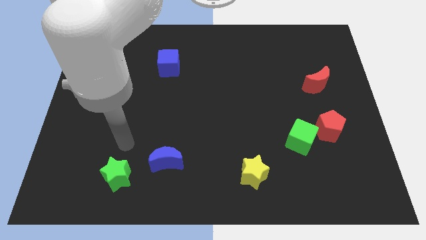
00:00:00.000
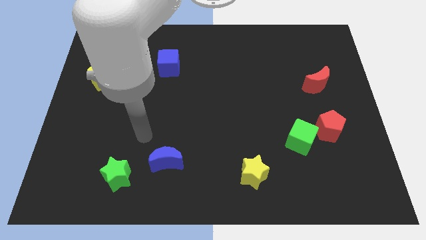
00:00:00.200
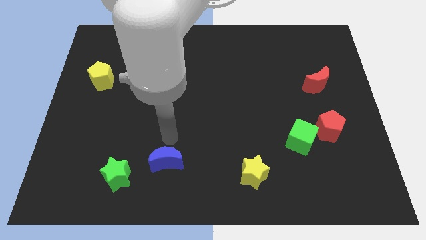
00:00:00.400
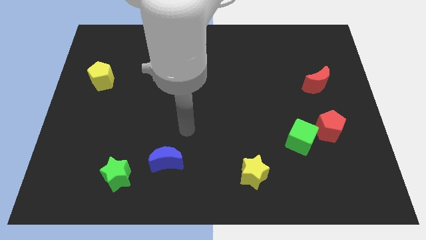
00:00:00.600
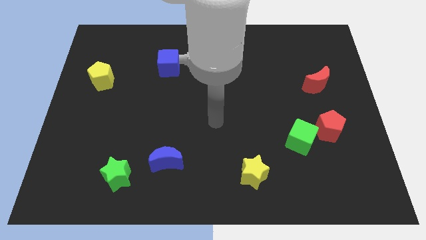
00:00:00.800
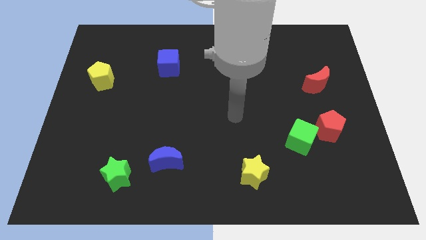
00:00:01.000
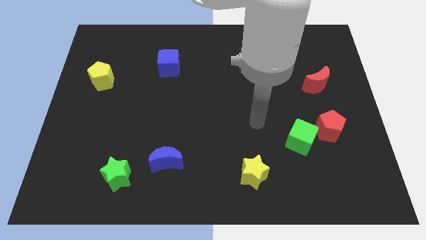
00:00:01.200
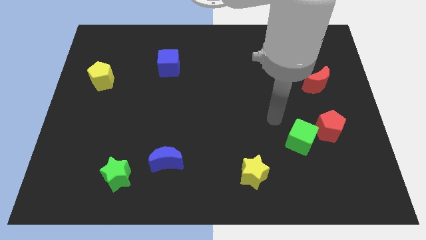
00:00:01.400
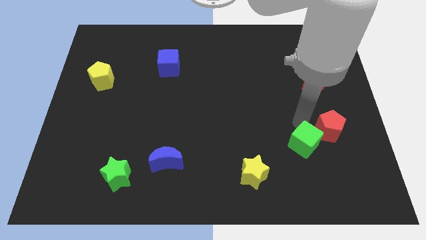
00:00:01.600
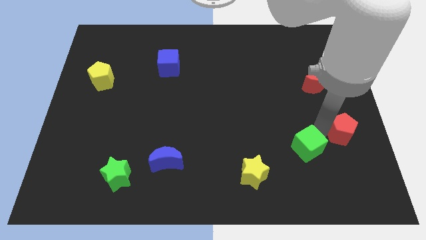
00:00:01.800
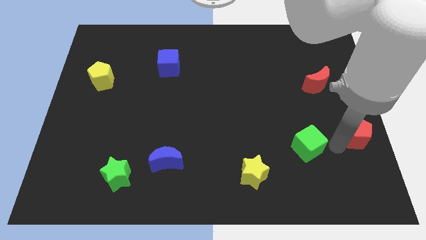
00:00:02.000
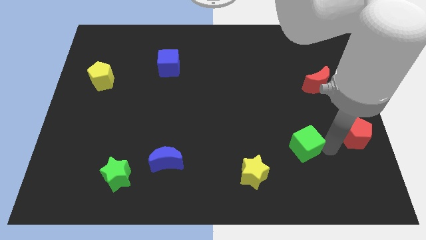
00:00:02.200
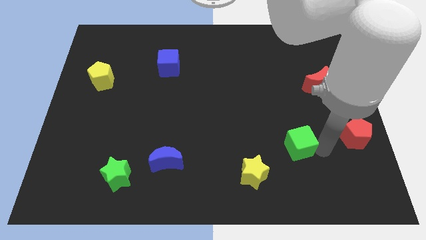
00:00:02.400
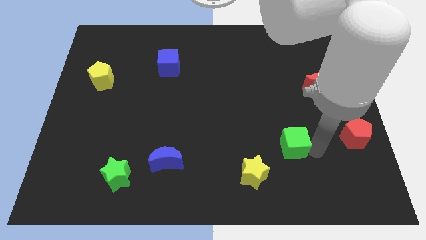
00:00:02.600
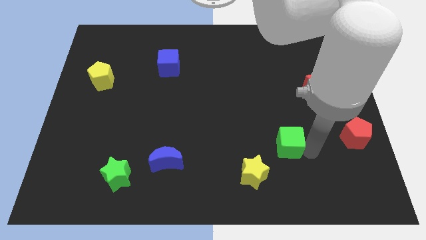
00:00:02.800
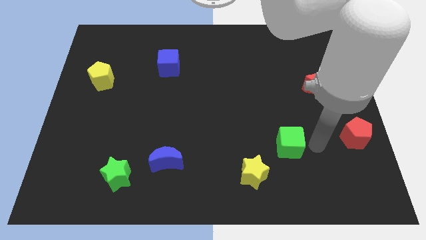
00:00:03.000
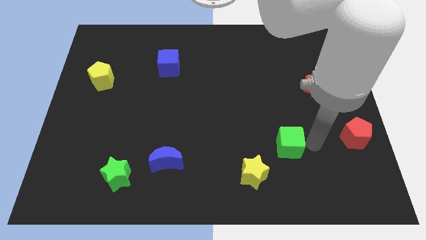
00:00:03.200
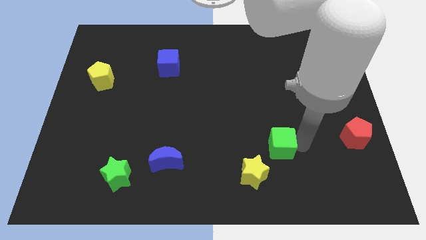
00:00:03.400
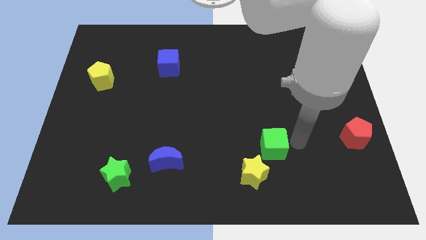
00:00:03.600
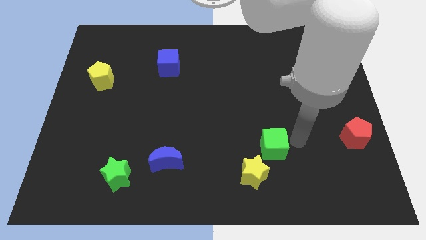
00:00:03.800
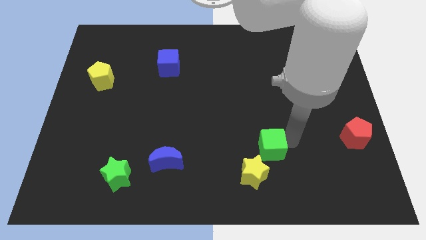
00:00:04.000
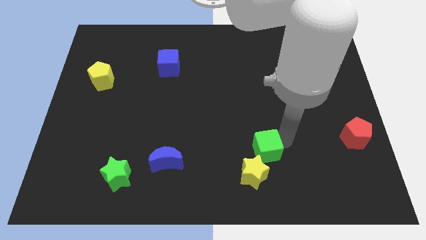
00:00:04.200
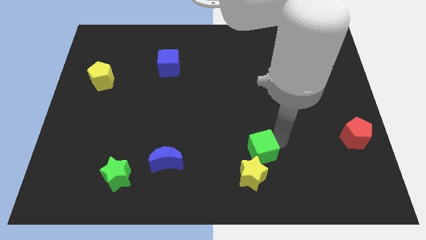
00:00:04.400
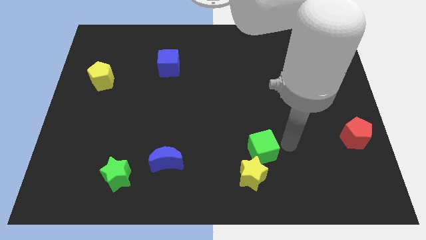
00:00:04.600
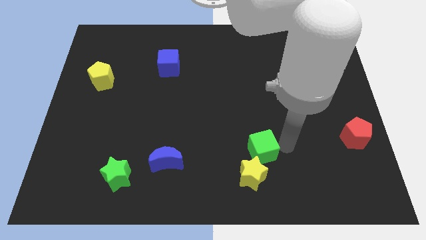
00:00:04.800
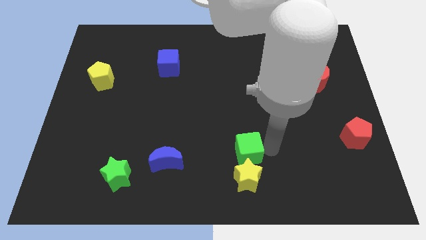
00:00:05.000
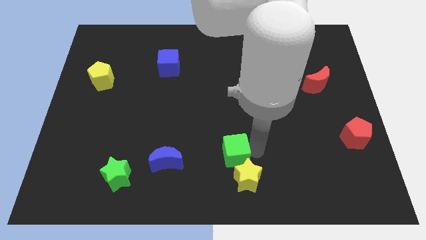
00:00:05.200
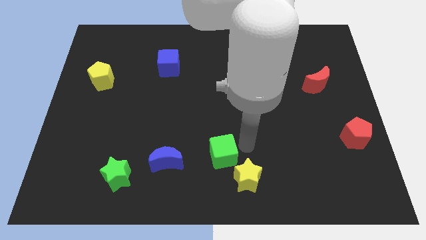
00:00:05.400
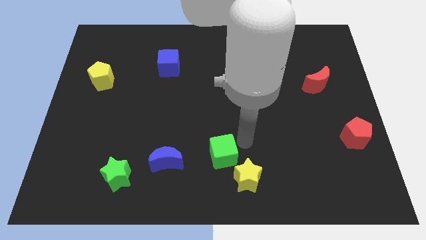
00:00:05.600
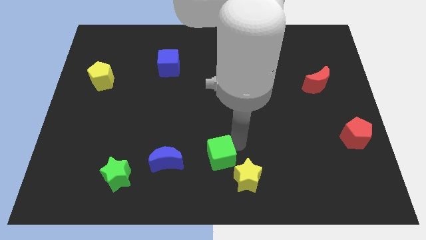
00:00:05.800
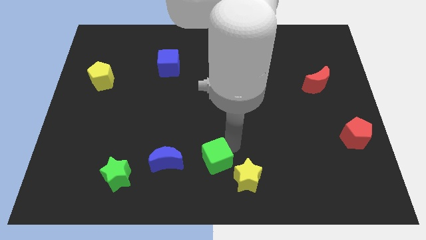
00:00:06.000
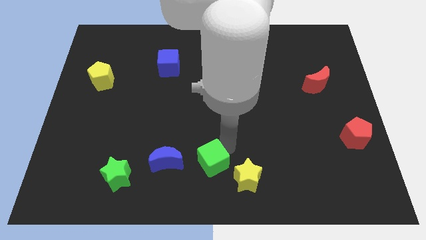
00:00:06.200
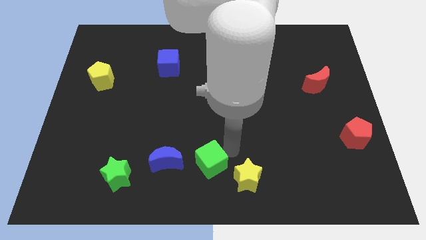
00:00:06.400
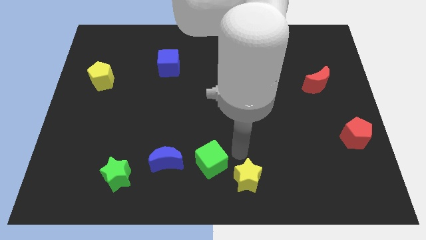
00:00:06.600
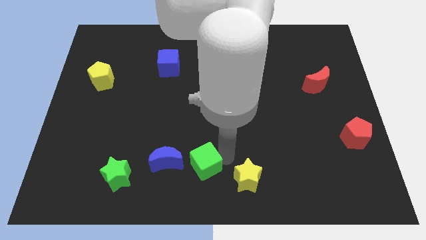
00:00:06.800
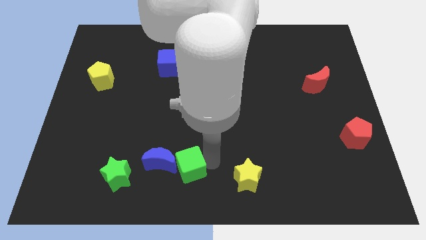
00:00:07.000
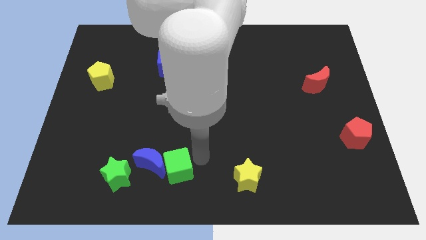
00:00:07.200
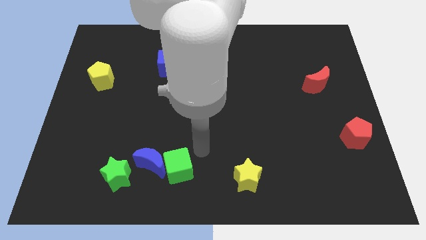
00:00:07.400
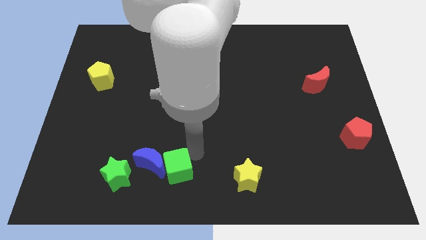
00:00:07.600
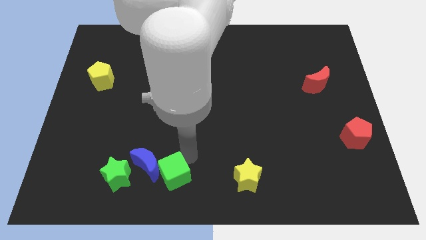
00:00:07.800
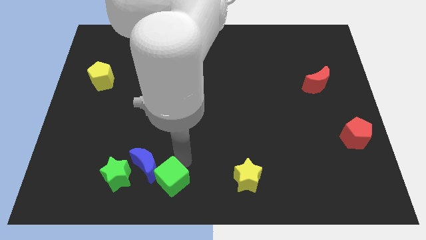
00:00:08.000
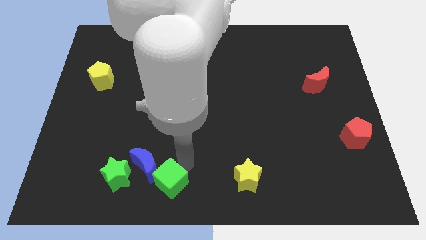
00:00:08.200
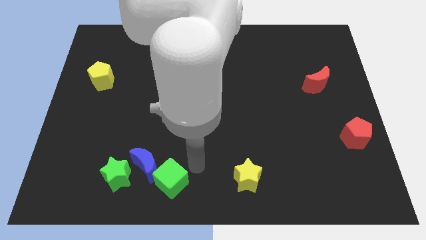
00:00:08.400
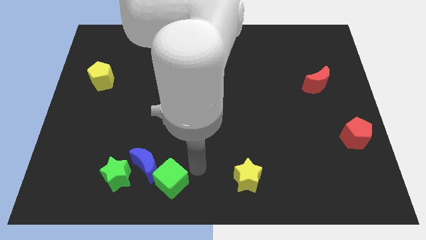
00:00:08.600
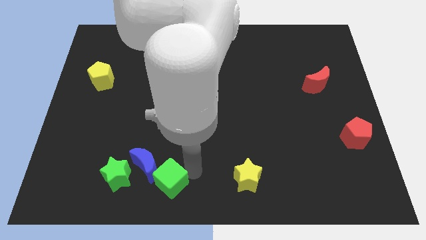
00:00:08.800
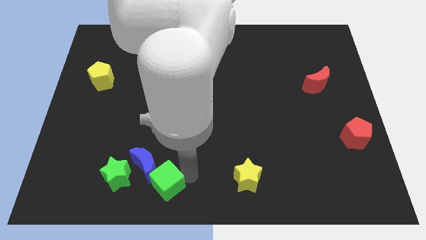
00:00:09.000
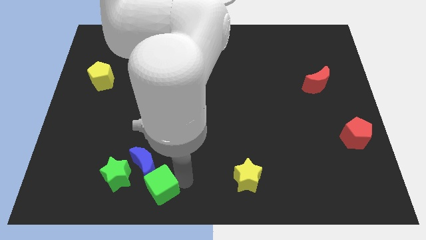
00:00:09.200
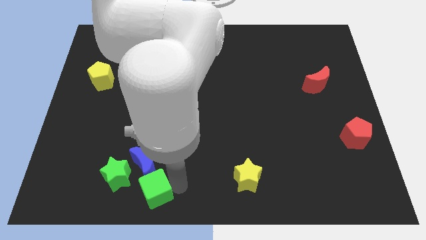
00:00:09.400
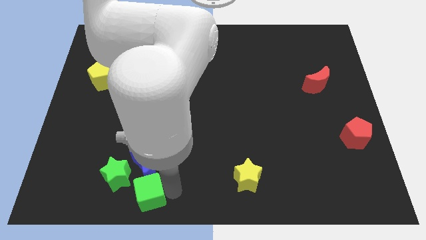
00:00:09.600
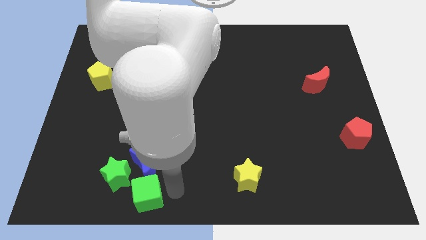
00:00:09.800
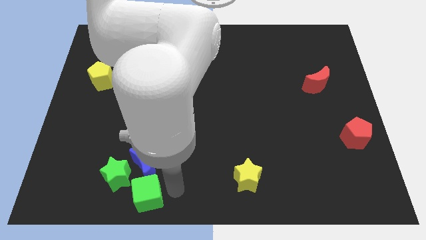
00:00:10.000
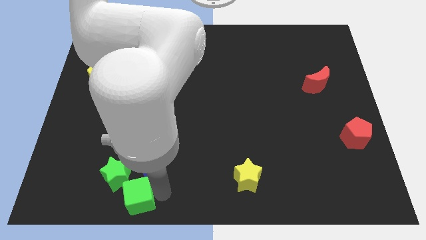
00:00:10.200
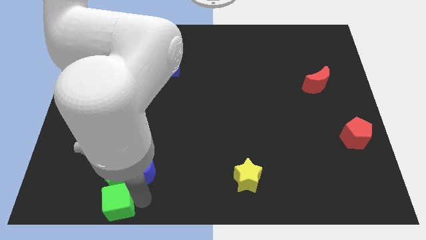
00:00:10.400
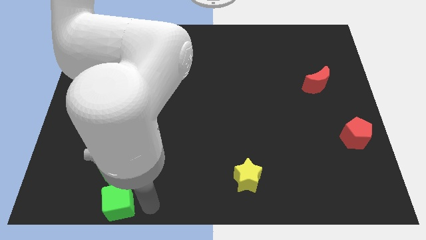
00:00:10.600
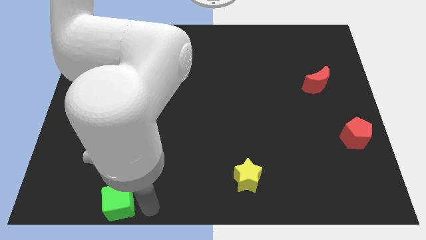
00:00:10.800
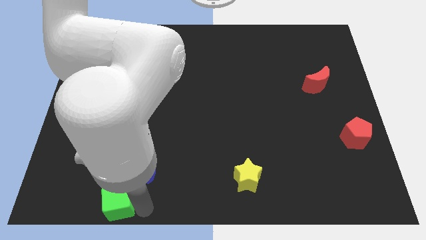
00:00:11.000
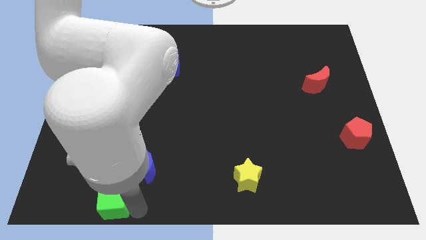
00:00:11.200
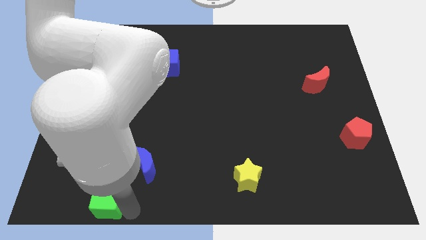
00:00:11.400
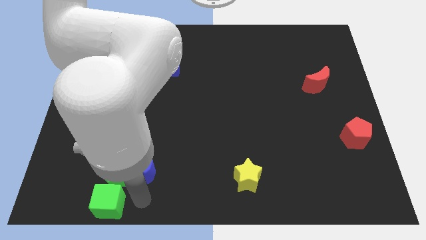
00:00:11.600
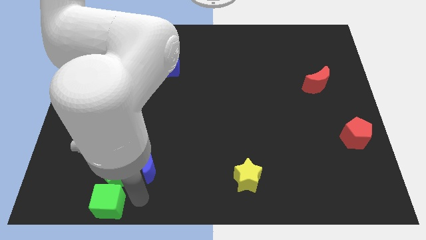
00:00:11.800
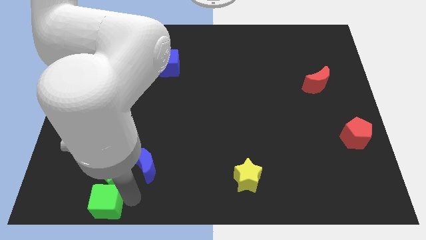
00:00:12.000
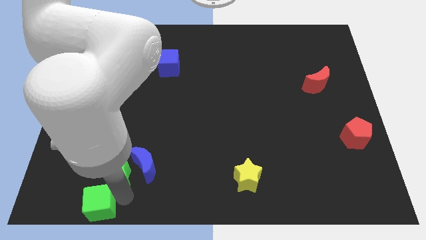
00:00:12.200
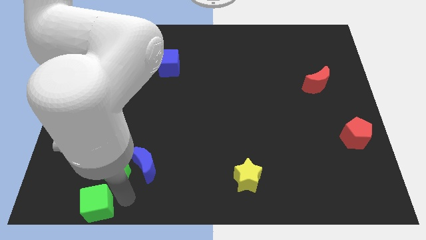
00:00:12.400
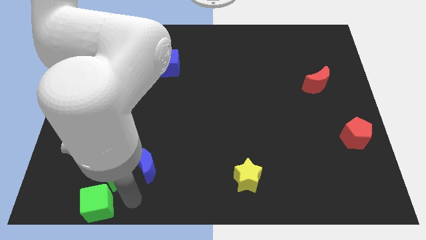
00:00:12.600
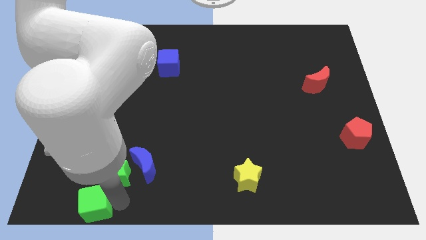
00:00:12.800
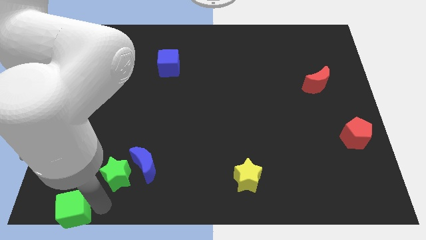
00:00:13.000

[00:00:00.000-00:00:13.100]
push the green cube to the bottom left of the board
